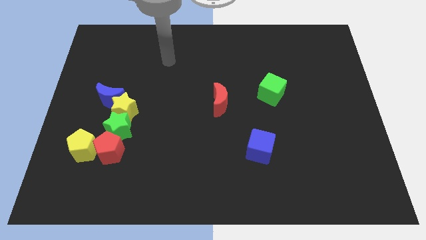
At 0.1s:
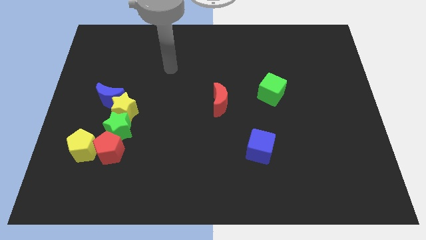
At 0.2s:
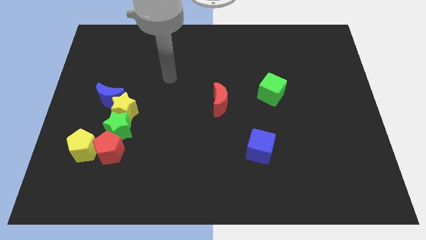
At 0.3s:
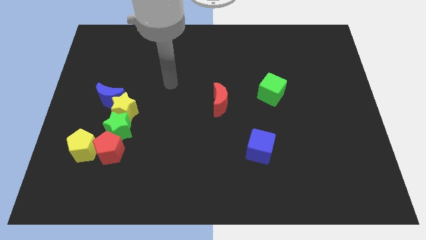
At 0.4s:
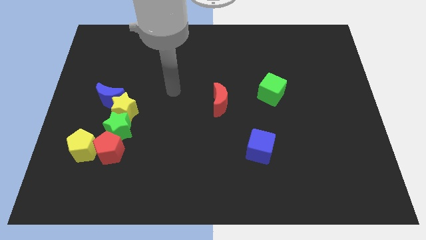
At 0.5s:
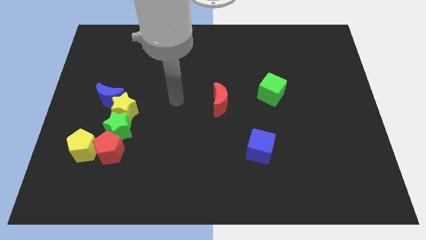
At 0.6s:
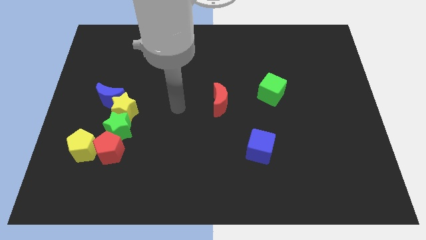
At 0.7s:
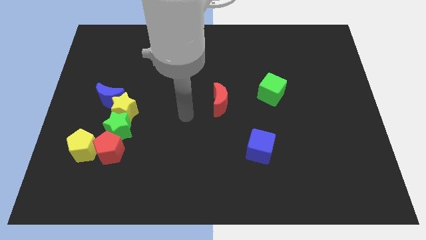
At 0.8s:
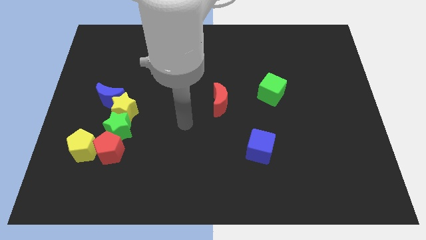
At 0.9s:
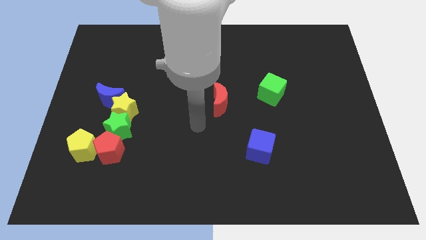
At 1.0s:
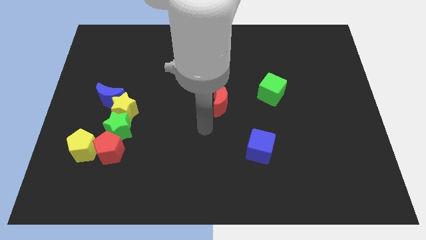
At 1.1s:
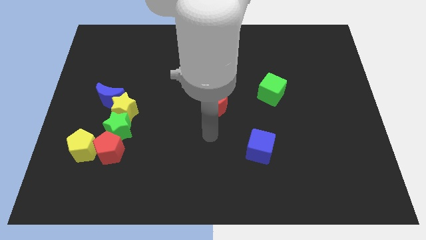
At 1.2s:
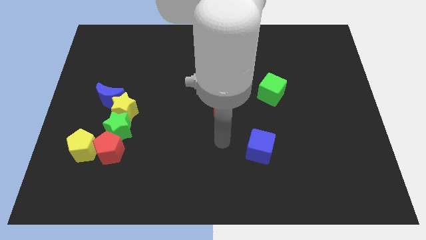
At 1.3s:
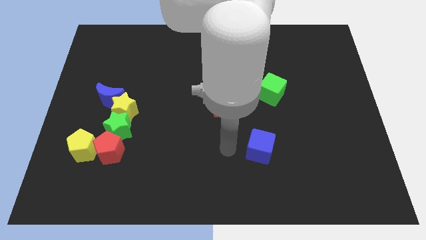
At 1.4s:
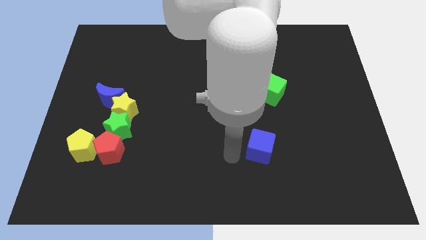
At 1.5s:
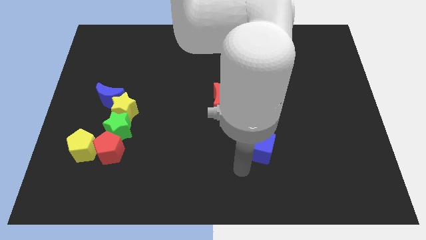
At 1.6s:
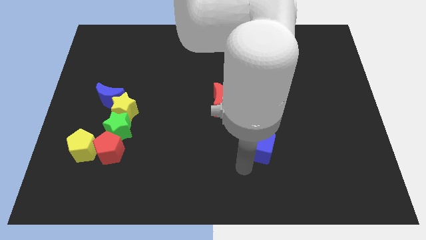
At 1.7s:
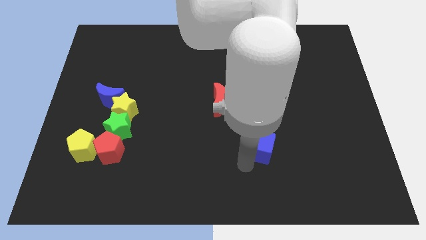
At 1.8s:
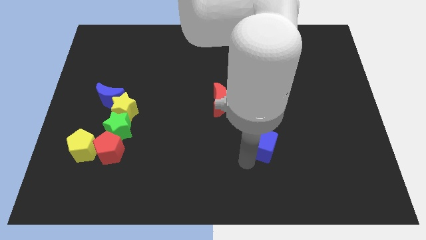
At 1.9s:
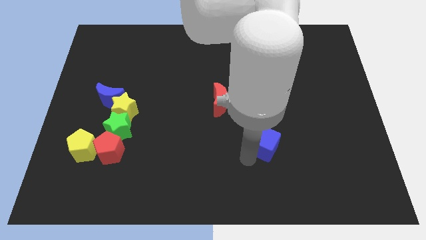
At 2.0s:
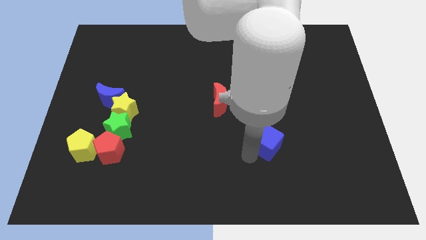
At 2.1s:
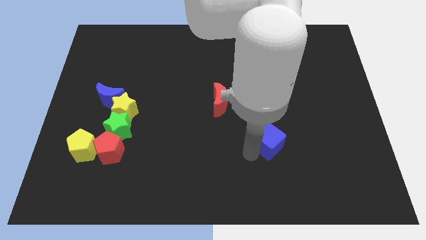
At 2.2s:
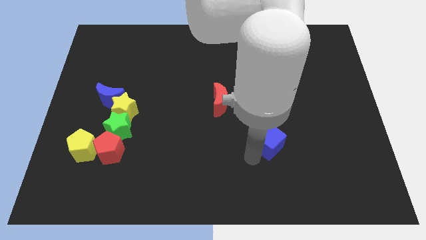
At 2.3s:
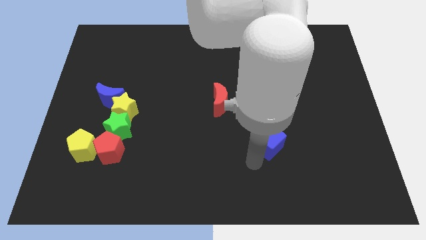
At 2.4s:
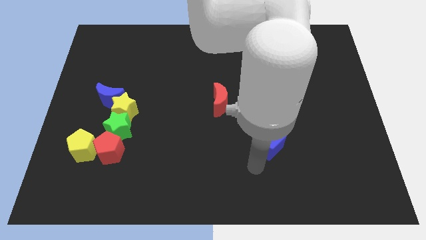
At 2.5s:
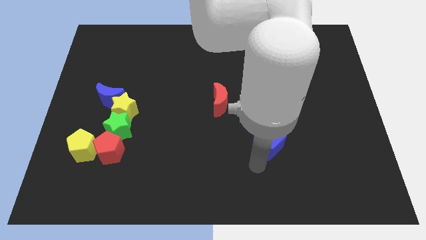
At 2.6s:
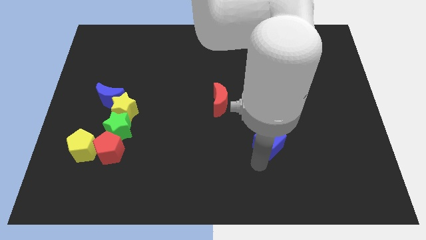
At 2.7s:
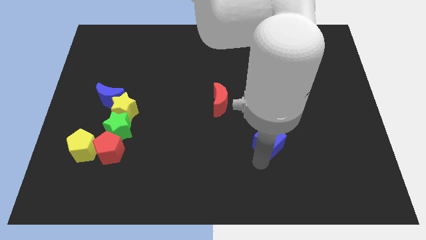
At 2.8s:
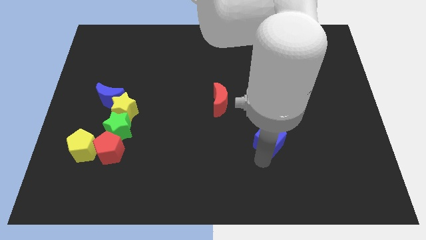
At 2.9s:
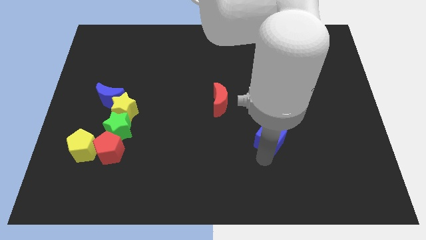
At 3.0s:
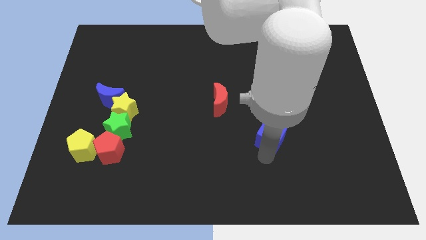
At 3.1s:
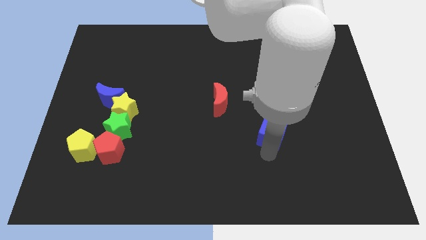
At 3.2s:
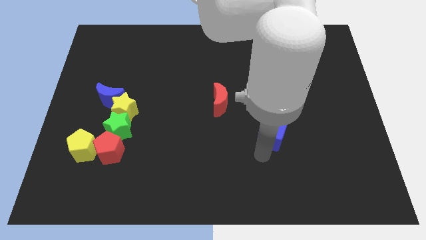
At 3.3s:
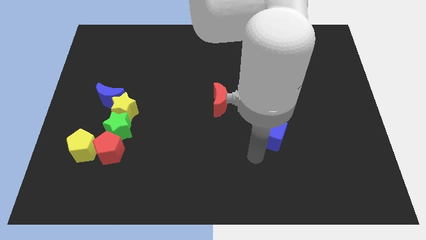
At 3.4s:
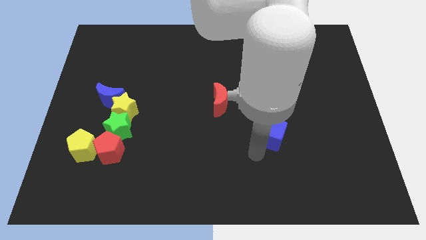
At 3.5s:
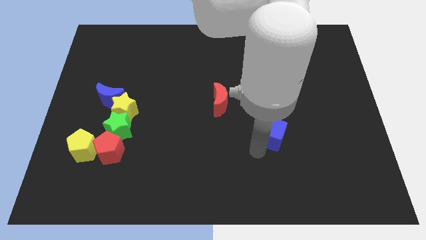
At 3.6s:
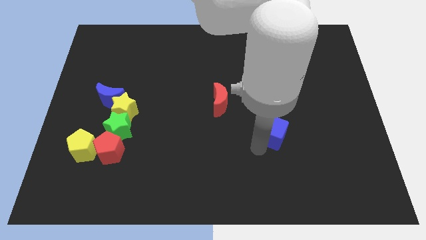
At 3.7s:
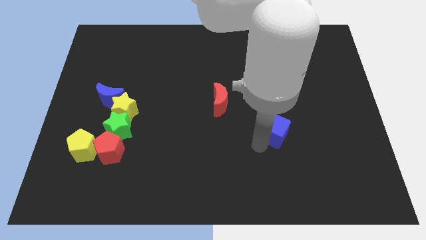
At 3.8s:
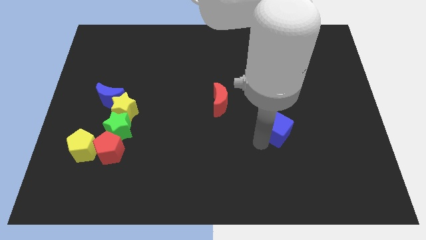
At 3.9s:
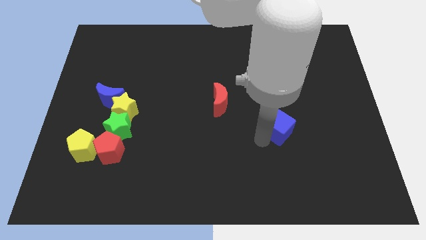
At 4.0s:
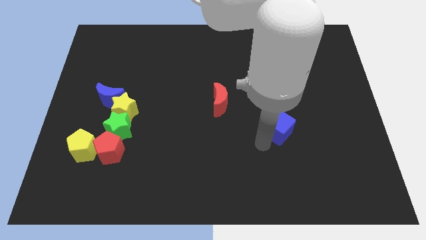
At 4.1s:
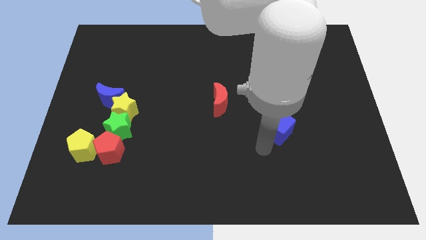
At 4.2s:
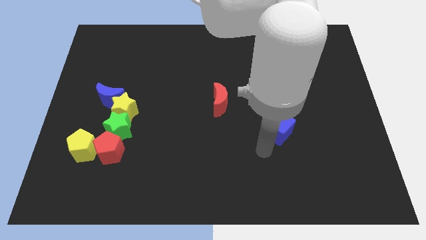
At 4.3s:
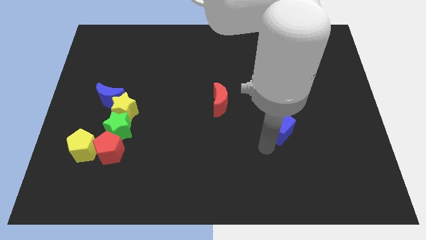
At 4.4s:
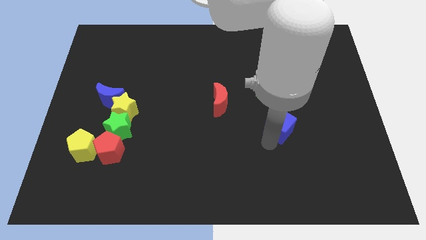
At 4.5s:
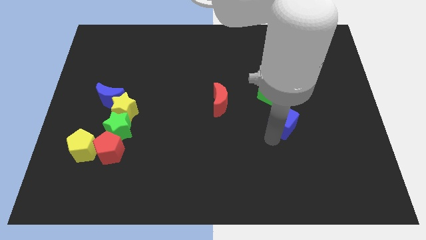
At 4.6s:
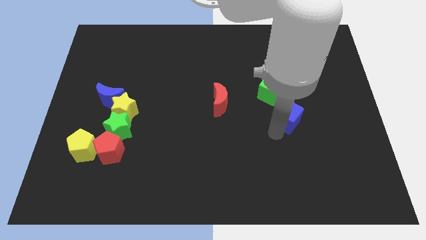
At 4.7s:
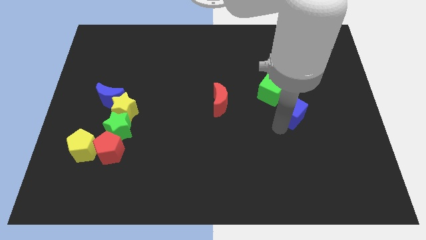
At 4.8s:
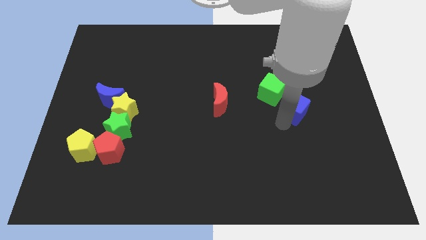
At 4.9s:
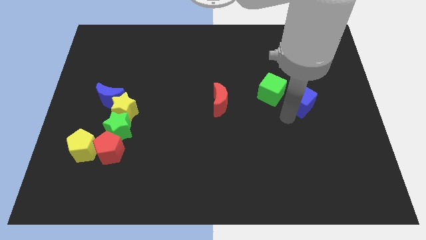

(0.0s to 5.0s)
move the blue cube right of the green cube

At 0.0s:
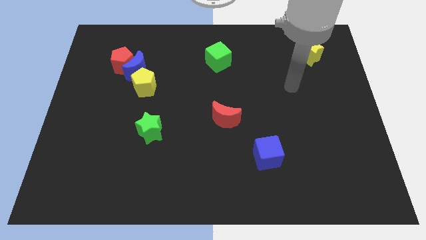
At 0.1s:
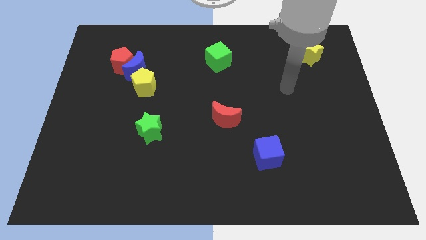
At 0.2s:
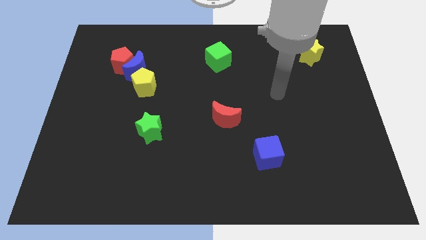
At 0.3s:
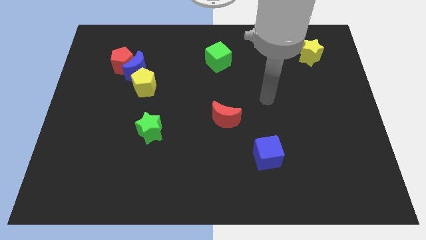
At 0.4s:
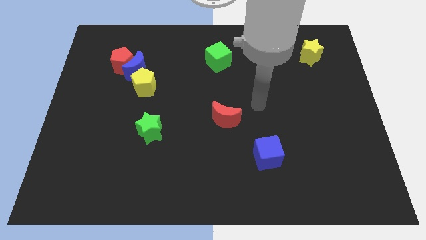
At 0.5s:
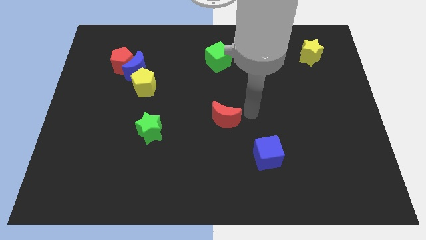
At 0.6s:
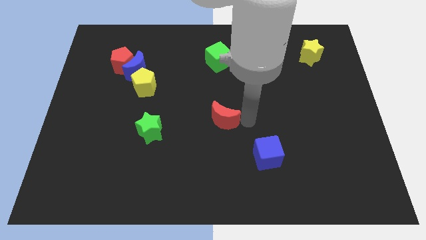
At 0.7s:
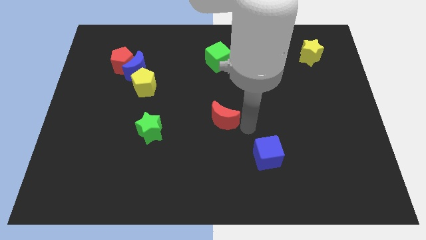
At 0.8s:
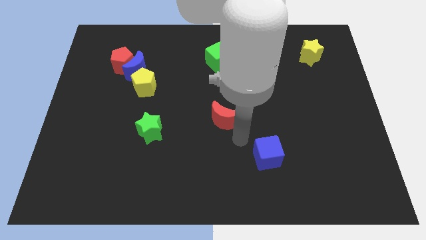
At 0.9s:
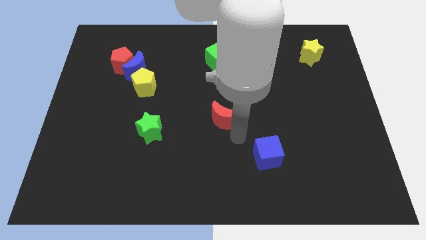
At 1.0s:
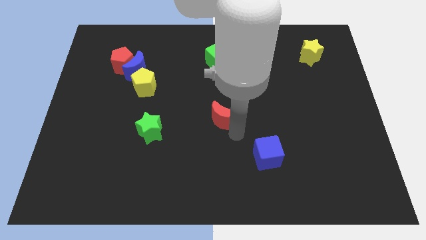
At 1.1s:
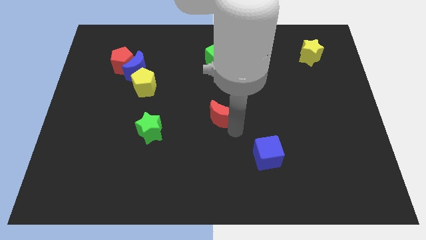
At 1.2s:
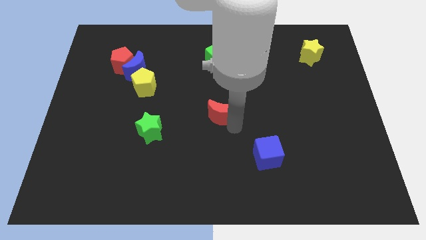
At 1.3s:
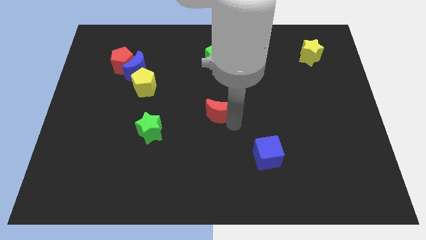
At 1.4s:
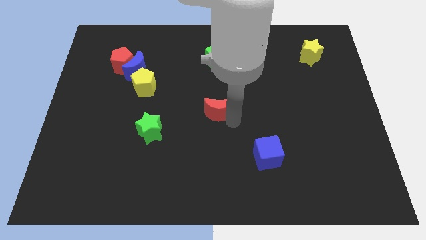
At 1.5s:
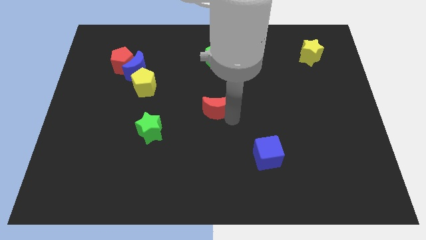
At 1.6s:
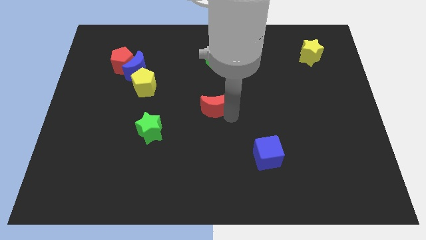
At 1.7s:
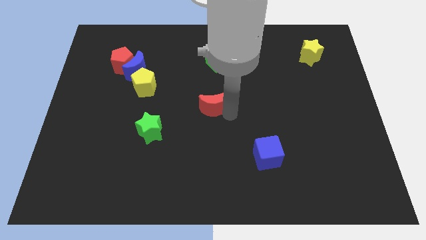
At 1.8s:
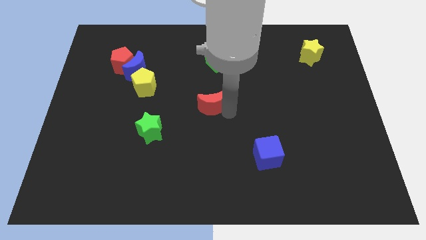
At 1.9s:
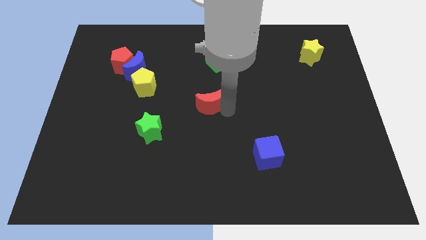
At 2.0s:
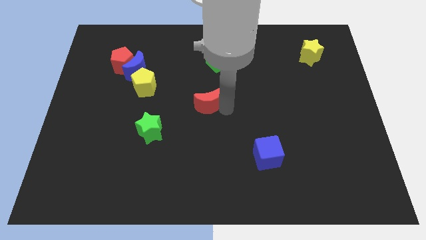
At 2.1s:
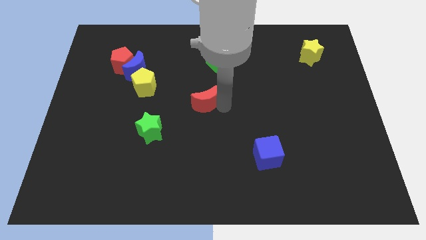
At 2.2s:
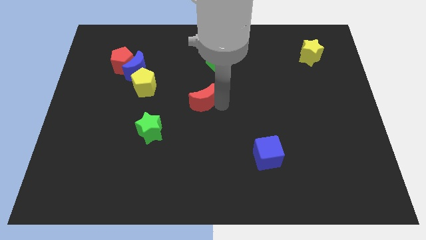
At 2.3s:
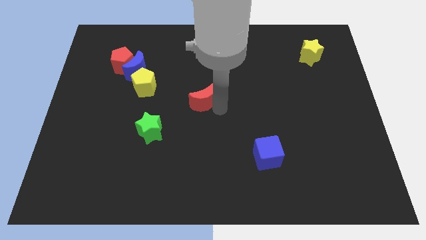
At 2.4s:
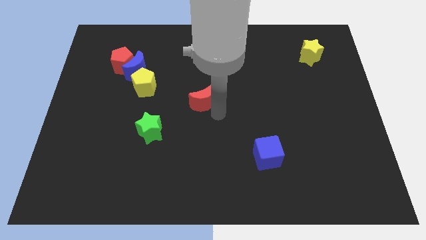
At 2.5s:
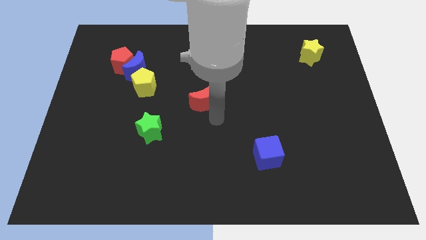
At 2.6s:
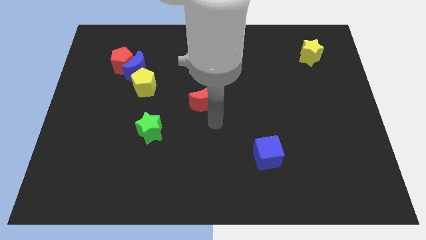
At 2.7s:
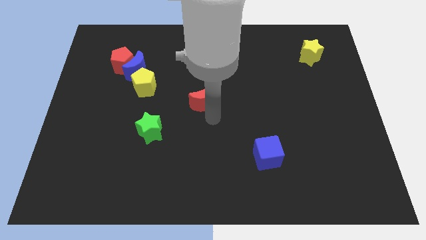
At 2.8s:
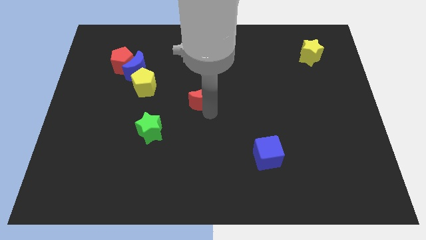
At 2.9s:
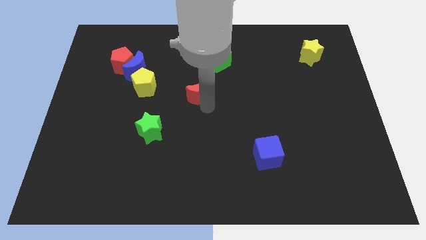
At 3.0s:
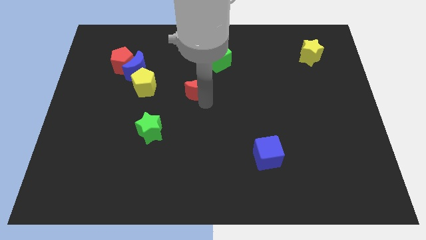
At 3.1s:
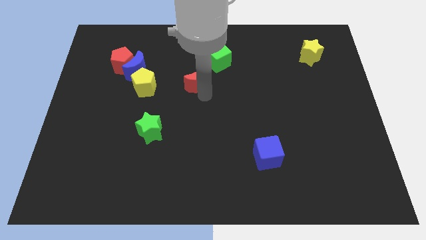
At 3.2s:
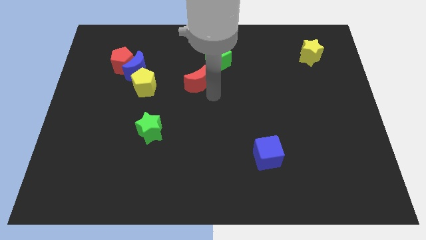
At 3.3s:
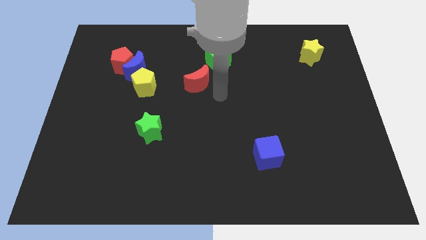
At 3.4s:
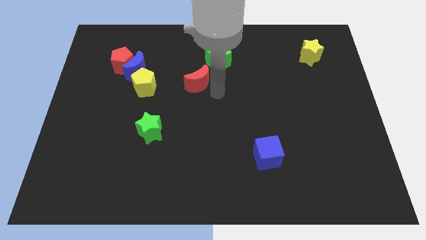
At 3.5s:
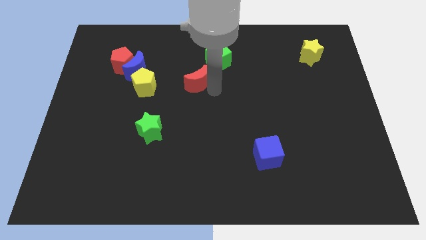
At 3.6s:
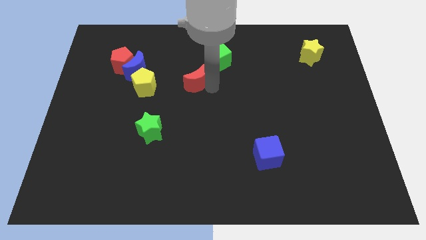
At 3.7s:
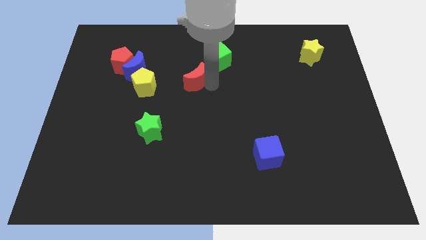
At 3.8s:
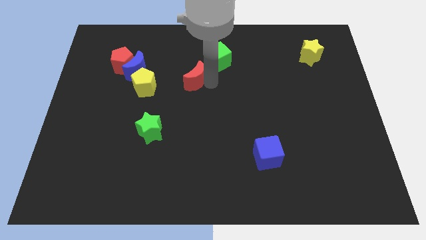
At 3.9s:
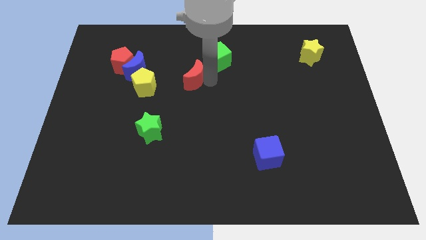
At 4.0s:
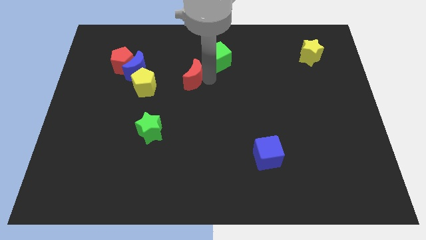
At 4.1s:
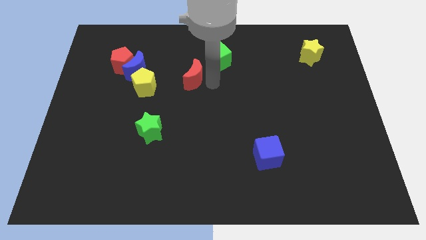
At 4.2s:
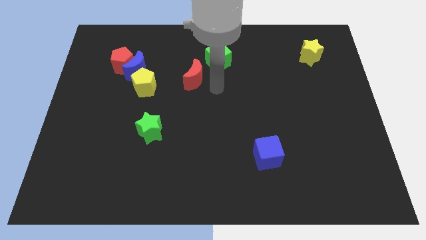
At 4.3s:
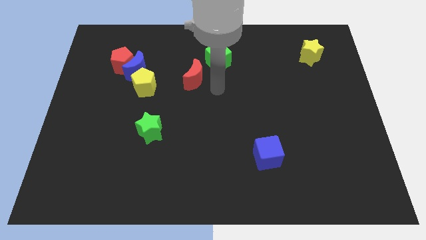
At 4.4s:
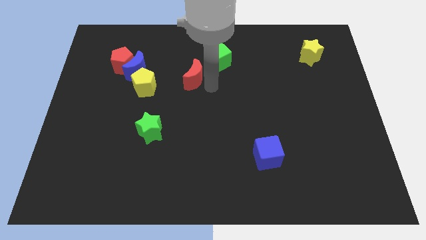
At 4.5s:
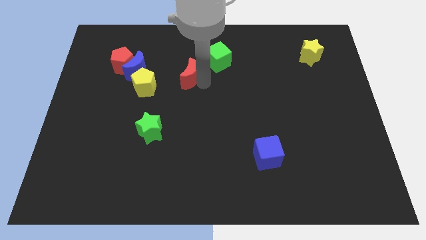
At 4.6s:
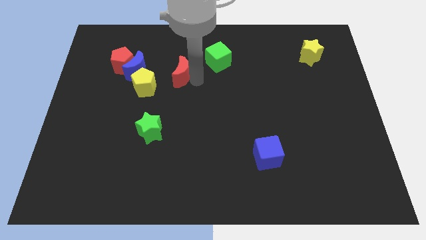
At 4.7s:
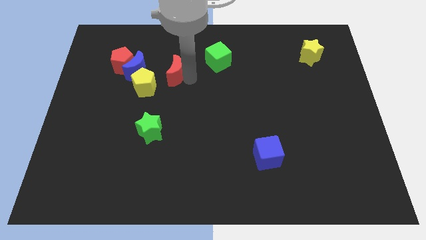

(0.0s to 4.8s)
put the red moon right of the red pentagon
